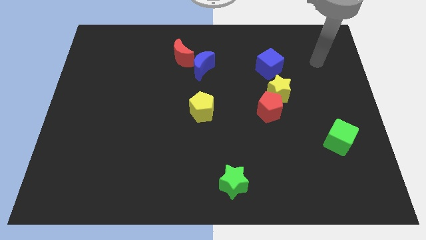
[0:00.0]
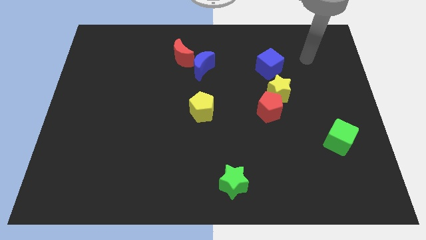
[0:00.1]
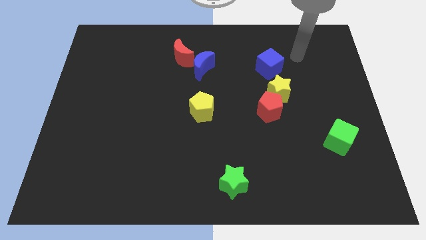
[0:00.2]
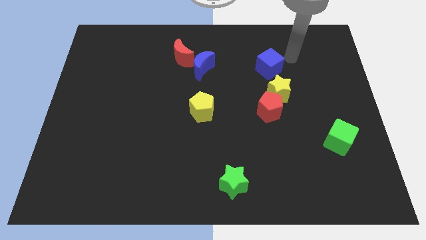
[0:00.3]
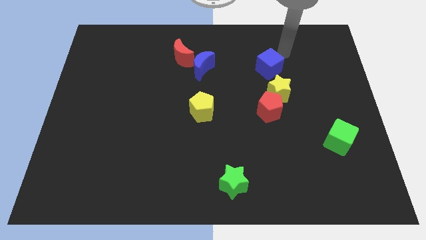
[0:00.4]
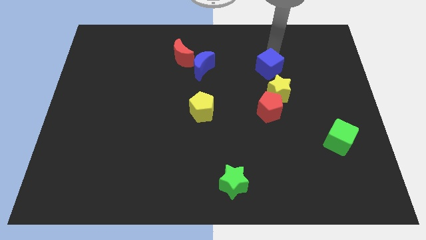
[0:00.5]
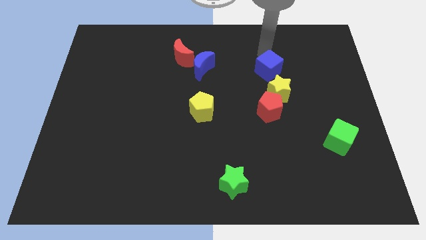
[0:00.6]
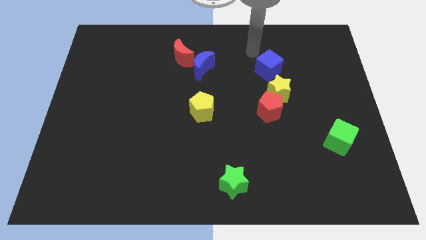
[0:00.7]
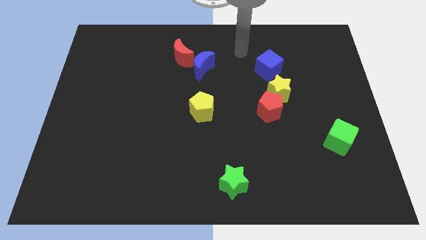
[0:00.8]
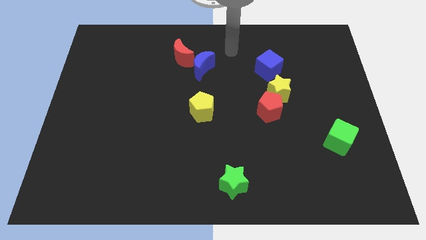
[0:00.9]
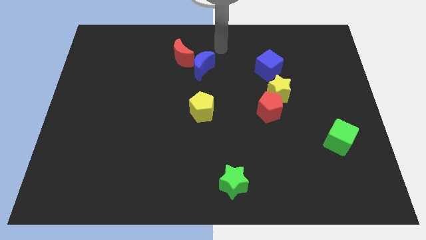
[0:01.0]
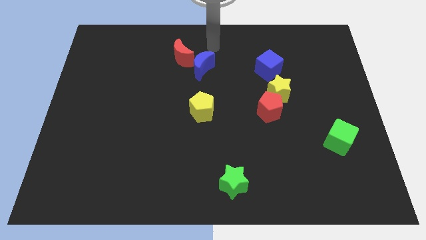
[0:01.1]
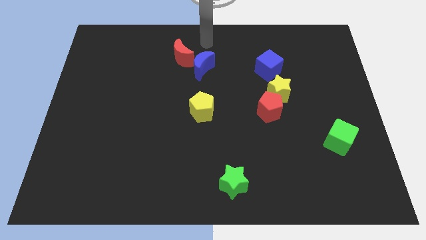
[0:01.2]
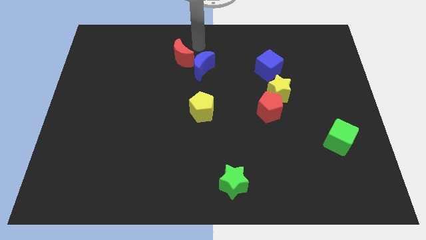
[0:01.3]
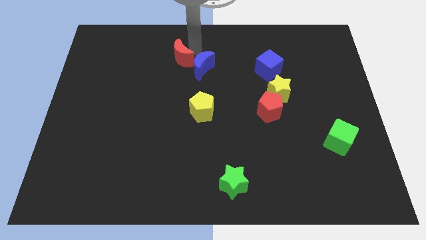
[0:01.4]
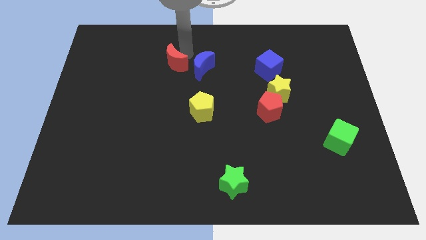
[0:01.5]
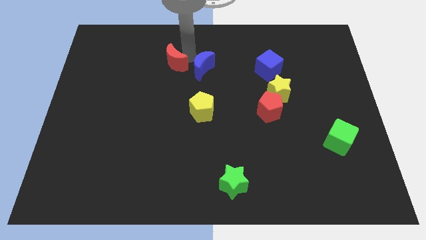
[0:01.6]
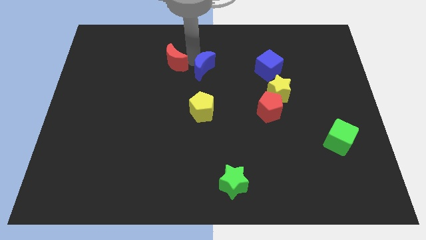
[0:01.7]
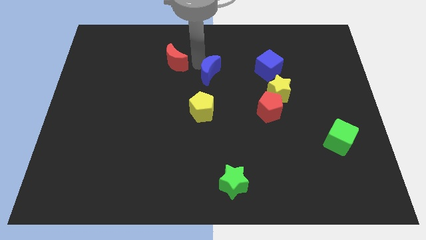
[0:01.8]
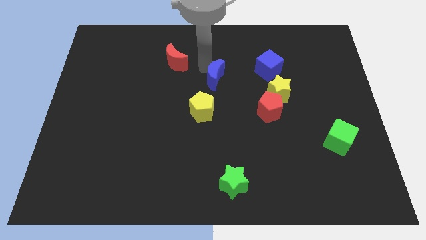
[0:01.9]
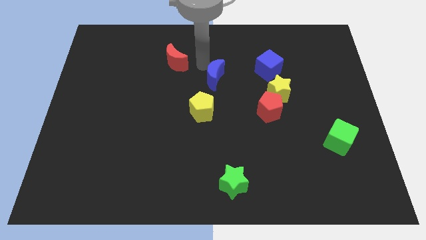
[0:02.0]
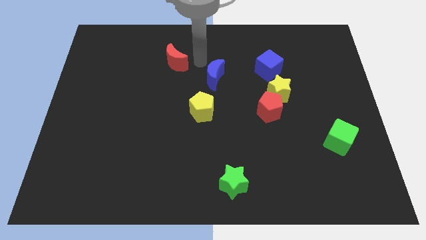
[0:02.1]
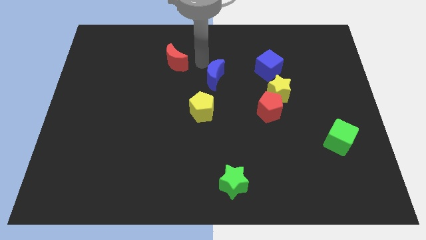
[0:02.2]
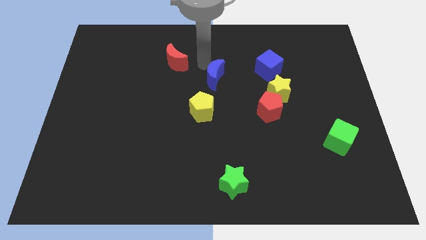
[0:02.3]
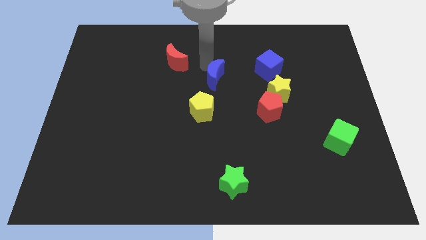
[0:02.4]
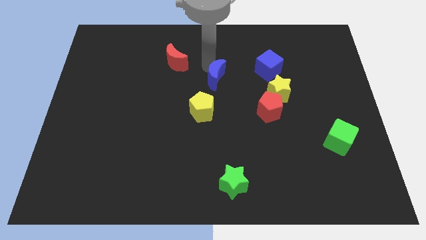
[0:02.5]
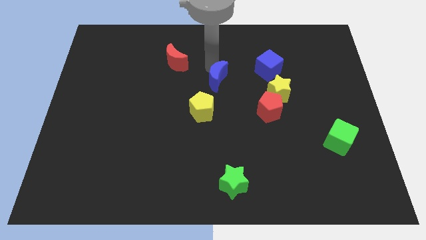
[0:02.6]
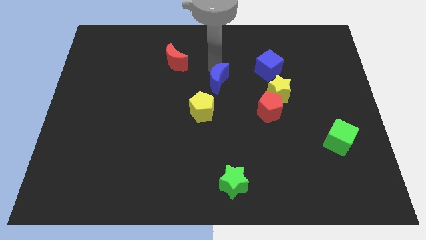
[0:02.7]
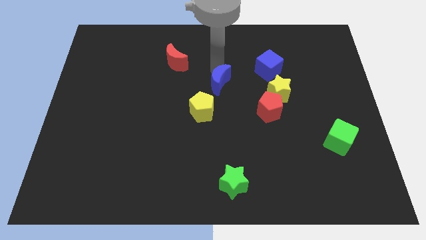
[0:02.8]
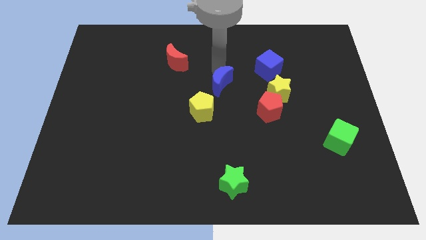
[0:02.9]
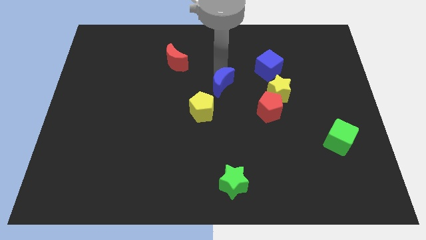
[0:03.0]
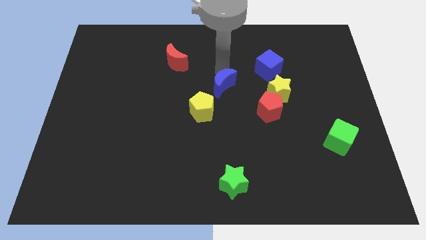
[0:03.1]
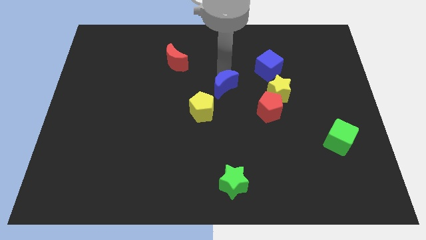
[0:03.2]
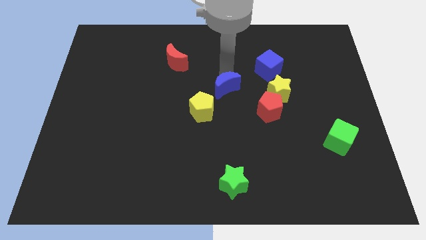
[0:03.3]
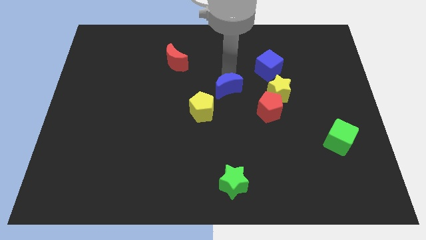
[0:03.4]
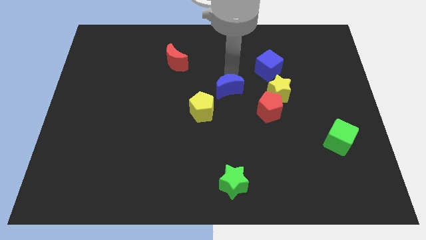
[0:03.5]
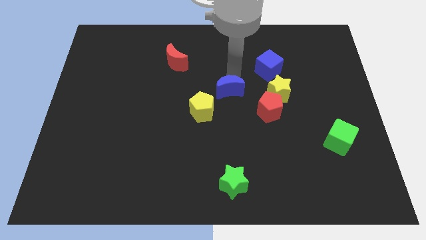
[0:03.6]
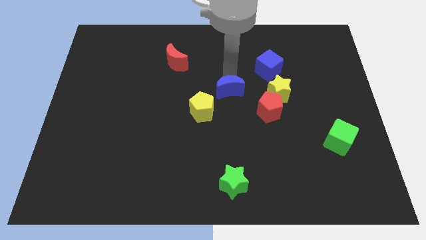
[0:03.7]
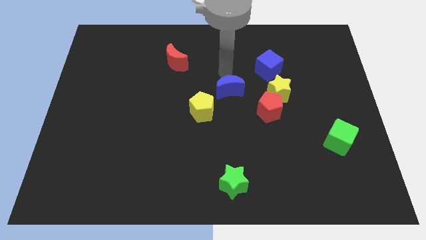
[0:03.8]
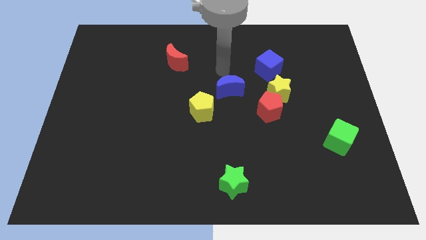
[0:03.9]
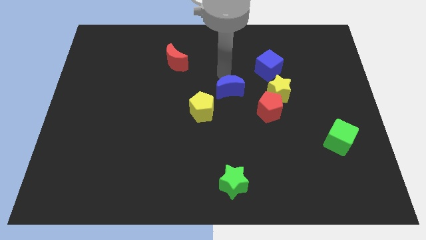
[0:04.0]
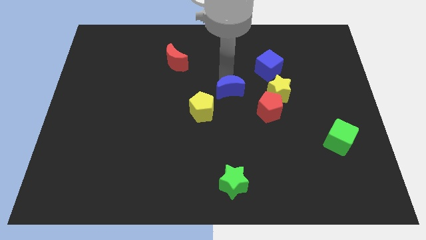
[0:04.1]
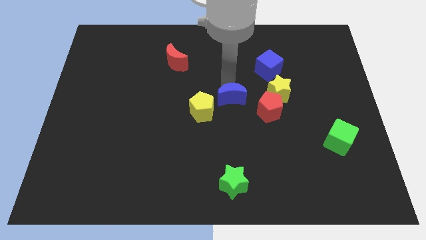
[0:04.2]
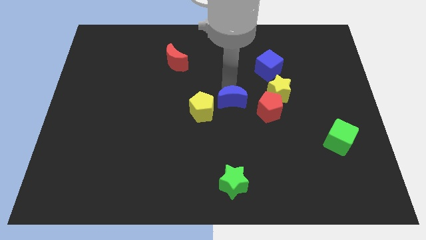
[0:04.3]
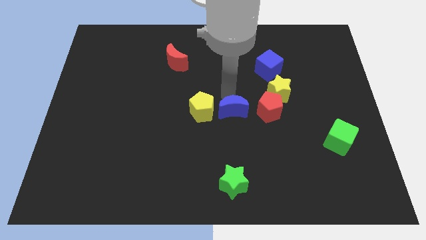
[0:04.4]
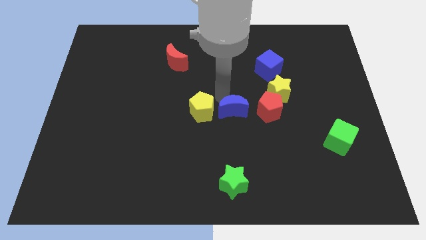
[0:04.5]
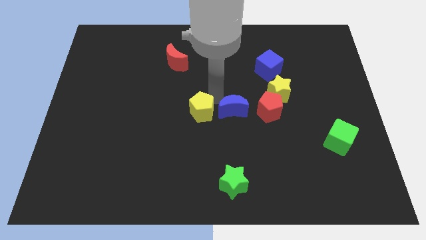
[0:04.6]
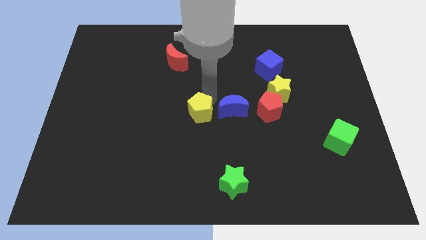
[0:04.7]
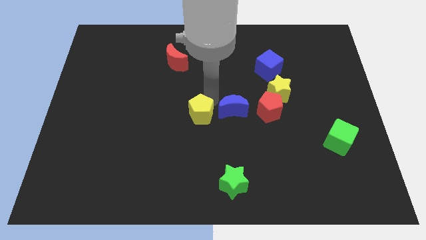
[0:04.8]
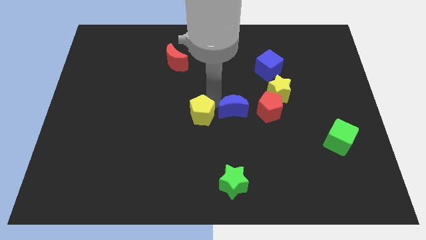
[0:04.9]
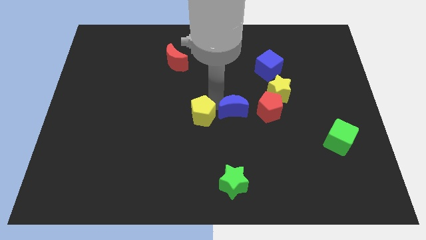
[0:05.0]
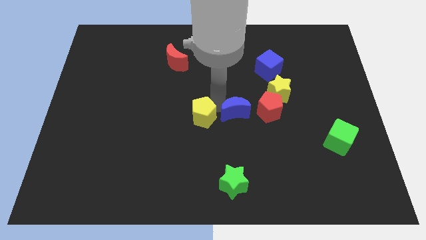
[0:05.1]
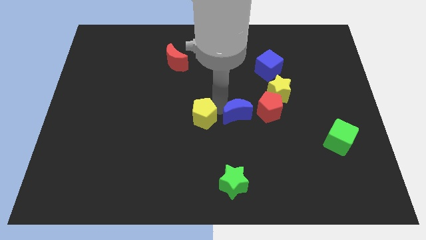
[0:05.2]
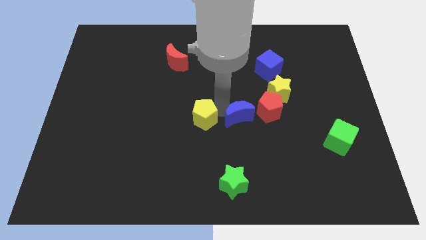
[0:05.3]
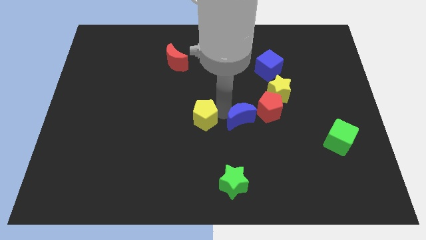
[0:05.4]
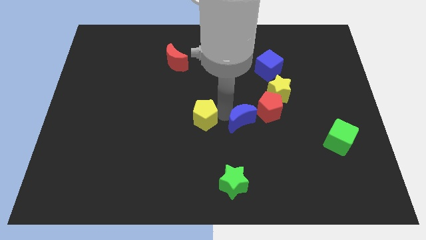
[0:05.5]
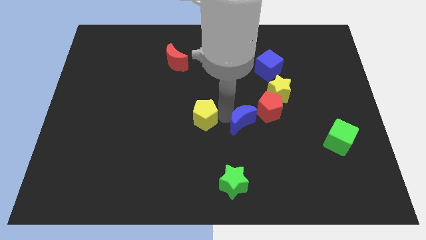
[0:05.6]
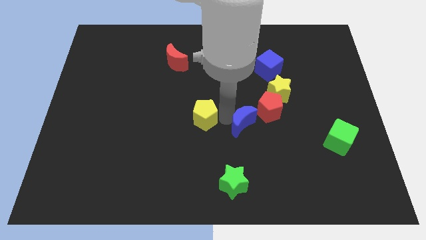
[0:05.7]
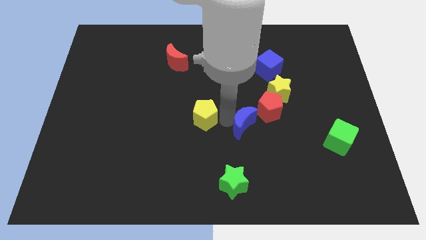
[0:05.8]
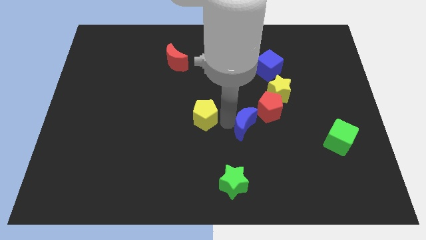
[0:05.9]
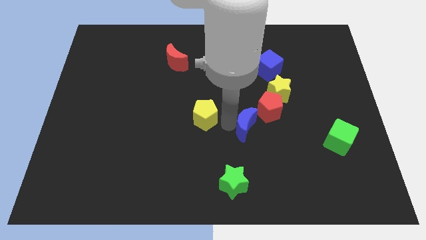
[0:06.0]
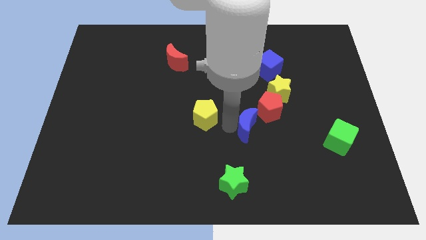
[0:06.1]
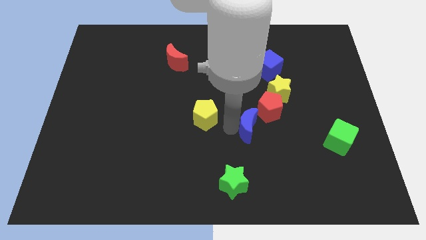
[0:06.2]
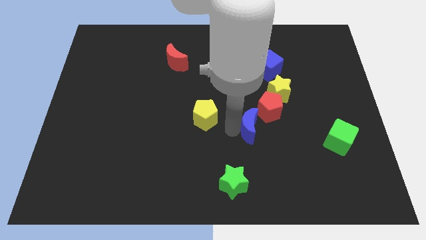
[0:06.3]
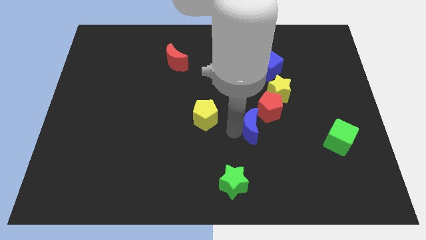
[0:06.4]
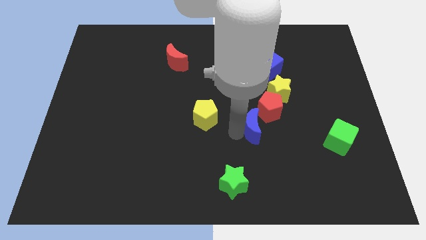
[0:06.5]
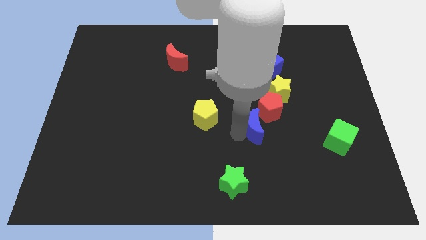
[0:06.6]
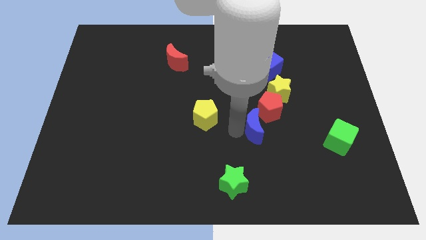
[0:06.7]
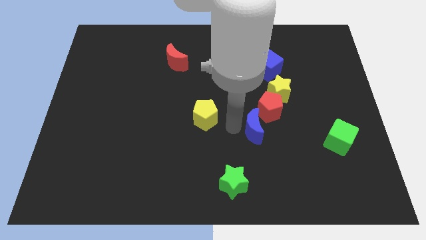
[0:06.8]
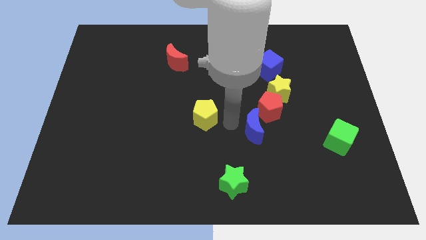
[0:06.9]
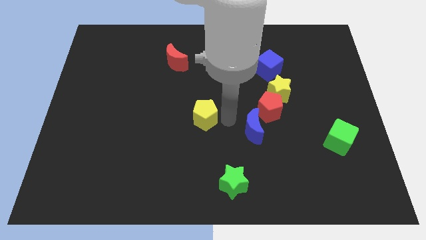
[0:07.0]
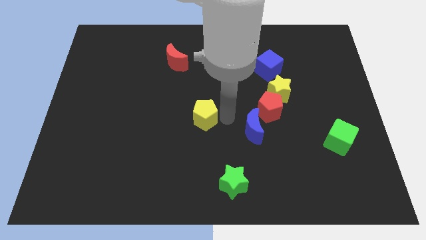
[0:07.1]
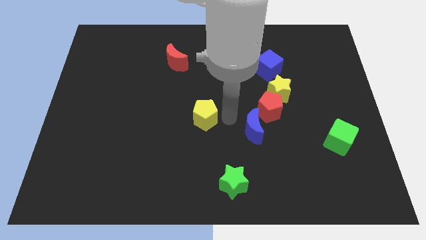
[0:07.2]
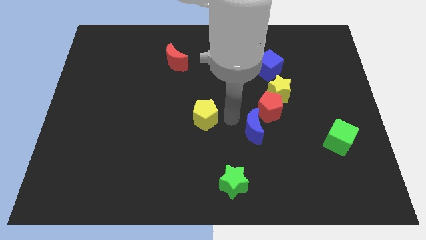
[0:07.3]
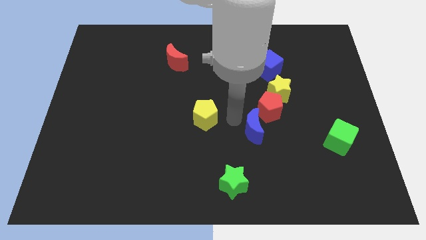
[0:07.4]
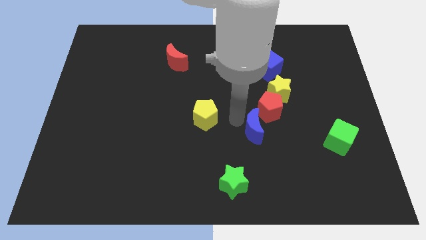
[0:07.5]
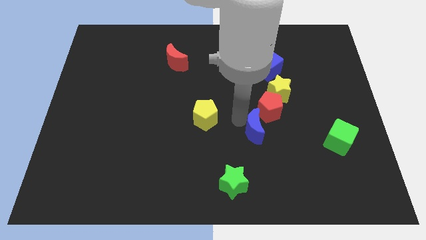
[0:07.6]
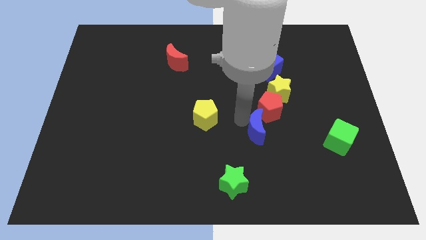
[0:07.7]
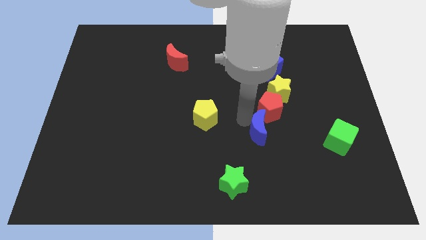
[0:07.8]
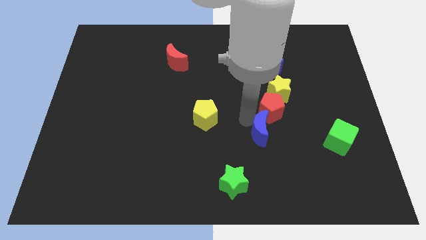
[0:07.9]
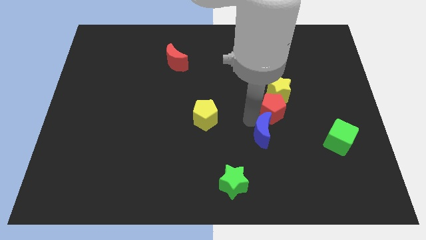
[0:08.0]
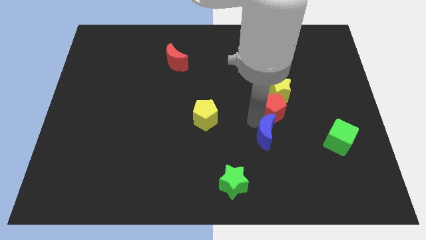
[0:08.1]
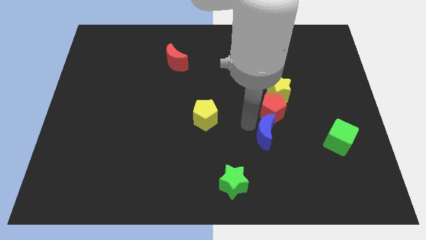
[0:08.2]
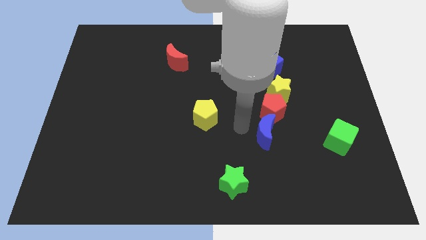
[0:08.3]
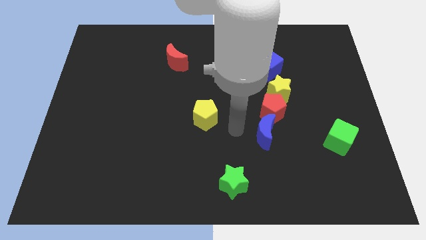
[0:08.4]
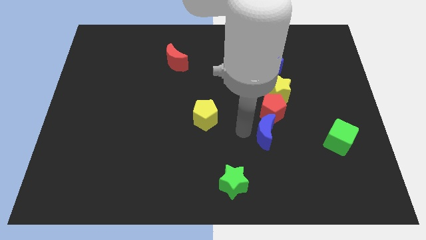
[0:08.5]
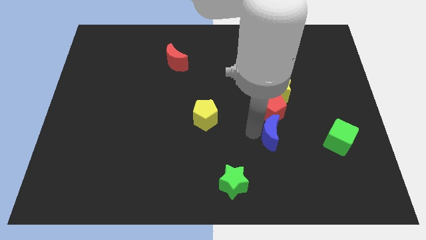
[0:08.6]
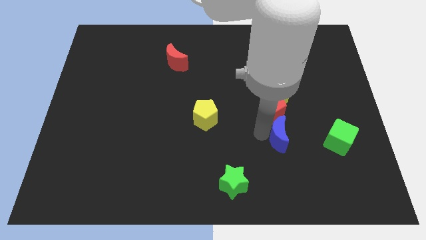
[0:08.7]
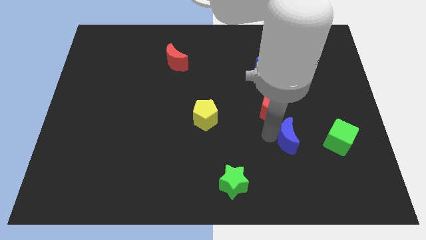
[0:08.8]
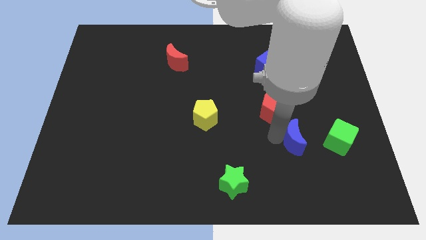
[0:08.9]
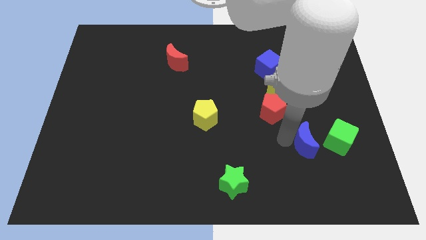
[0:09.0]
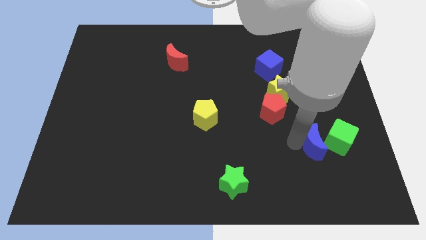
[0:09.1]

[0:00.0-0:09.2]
move the blue moon to the green cube
